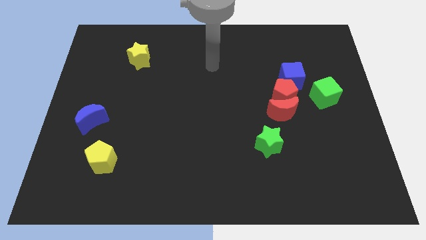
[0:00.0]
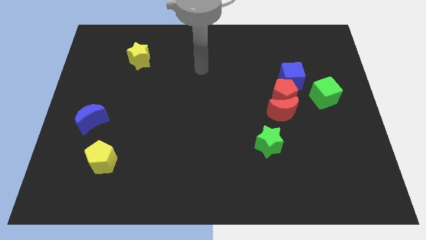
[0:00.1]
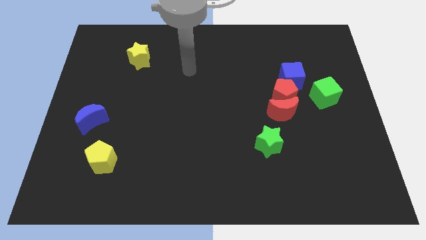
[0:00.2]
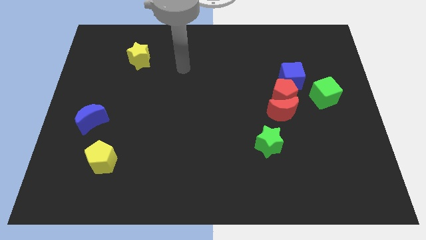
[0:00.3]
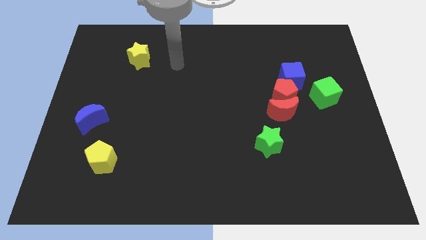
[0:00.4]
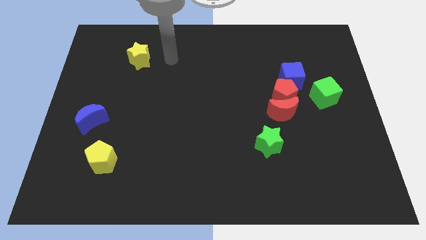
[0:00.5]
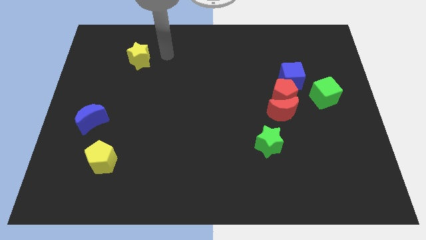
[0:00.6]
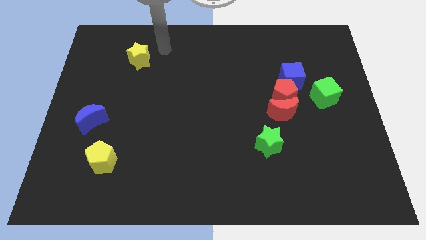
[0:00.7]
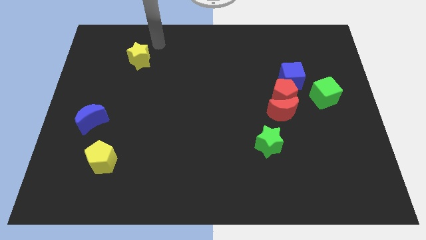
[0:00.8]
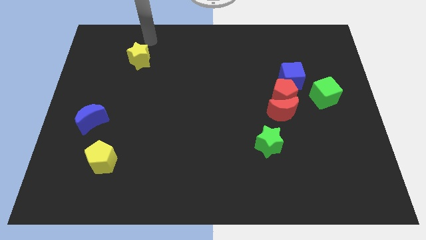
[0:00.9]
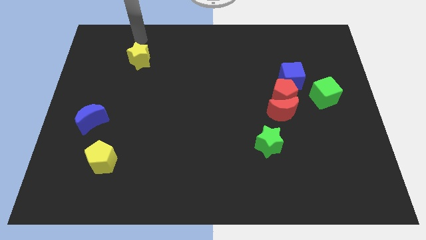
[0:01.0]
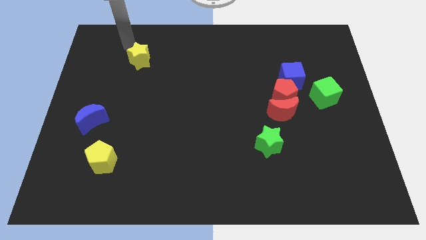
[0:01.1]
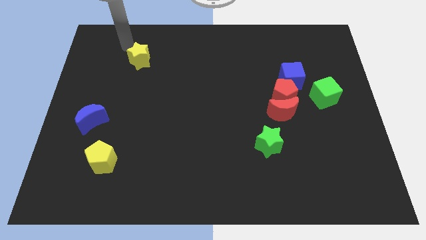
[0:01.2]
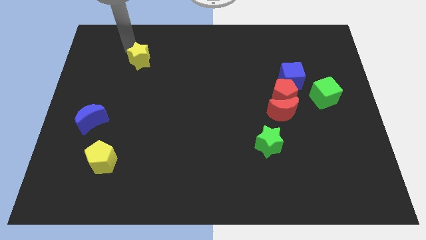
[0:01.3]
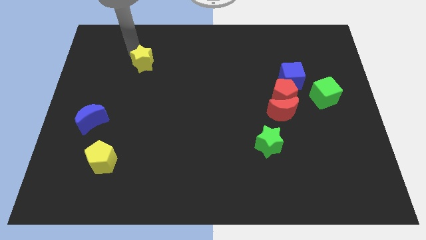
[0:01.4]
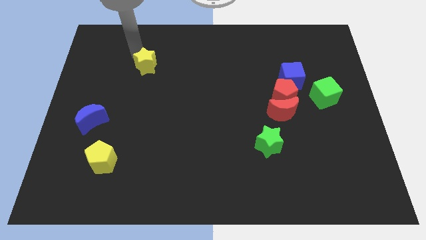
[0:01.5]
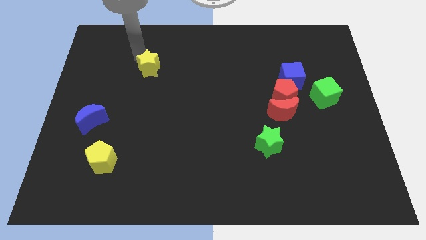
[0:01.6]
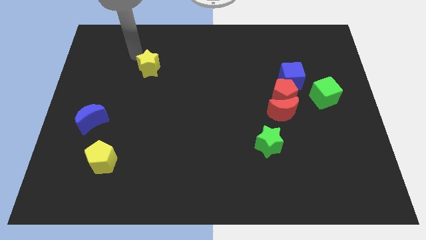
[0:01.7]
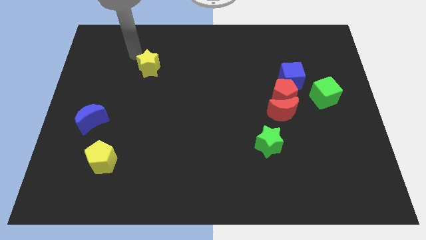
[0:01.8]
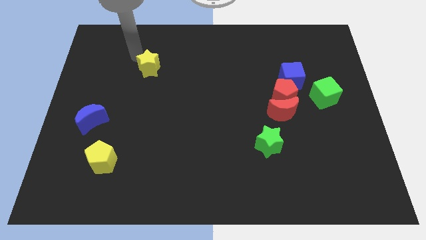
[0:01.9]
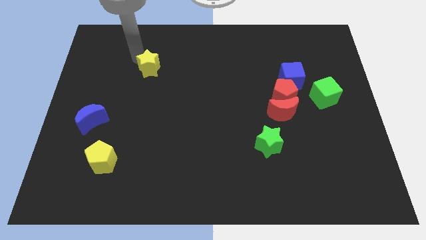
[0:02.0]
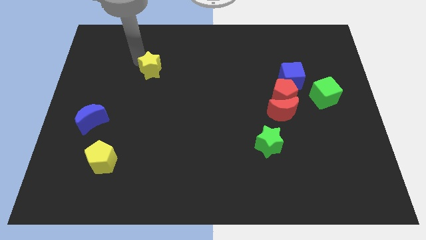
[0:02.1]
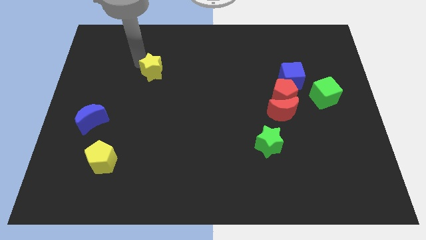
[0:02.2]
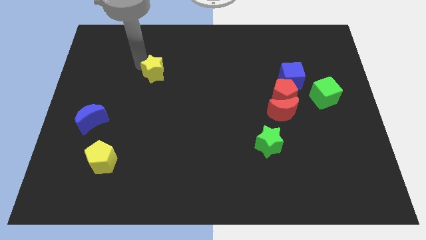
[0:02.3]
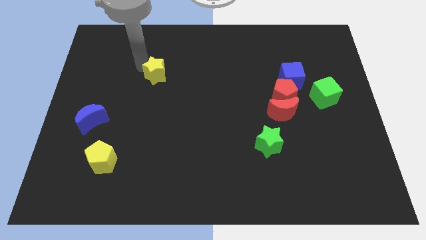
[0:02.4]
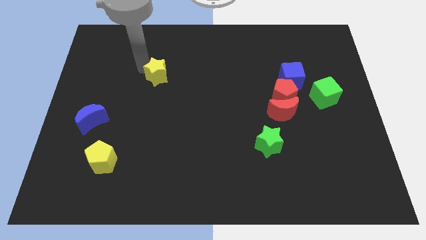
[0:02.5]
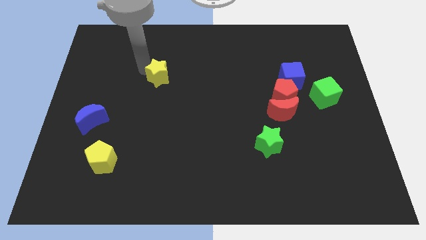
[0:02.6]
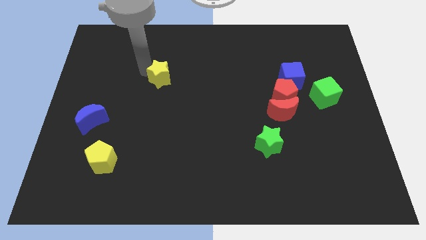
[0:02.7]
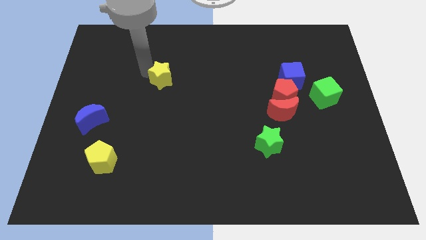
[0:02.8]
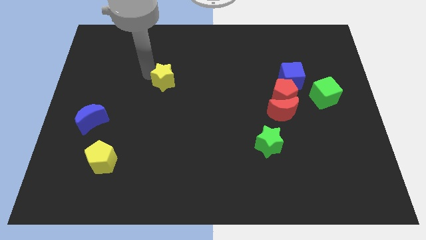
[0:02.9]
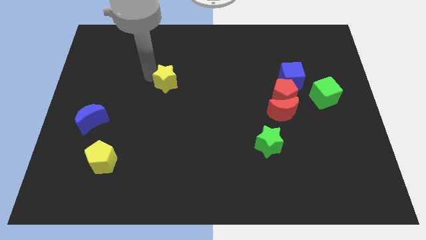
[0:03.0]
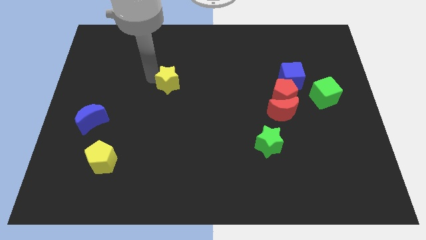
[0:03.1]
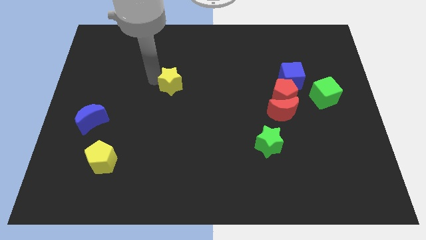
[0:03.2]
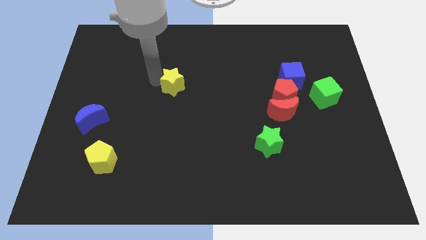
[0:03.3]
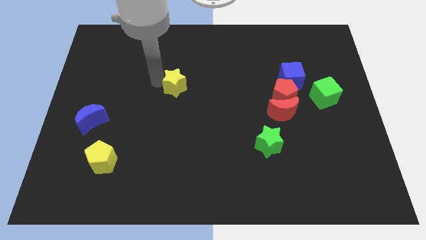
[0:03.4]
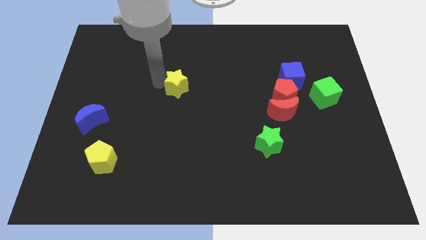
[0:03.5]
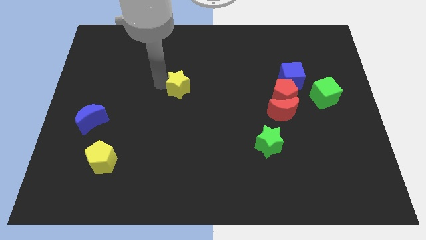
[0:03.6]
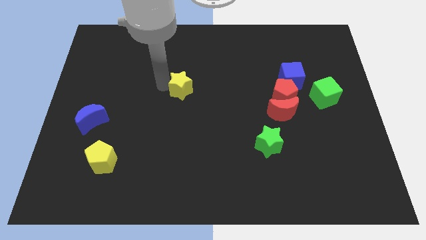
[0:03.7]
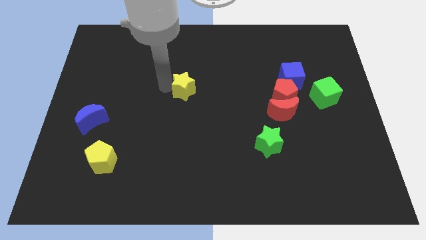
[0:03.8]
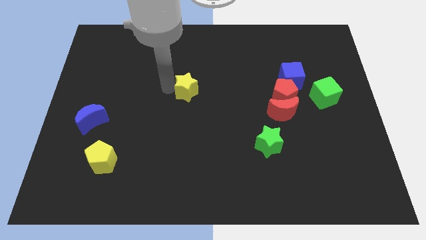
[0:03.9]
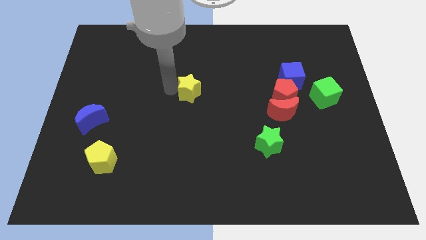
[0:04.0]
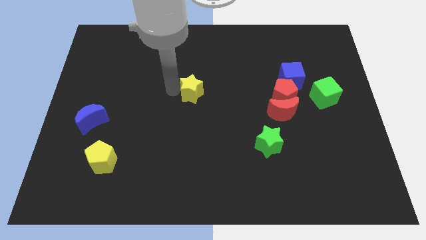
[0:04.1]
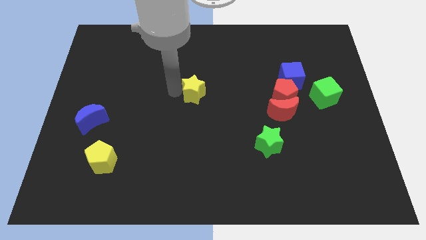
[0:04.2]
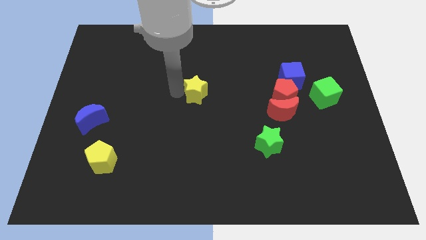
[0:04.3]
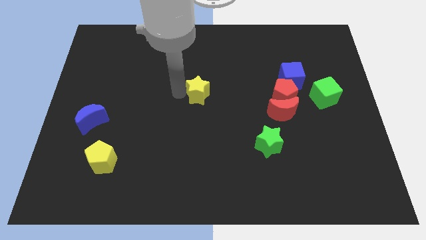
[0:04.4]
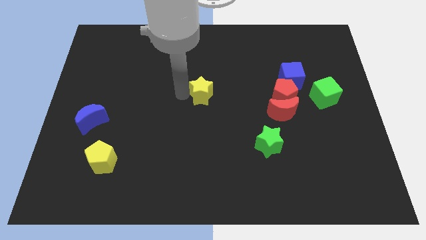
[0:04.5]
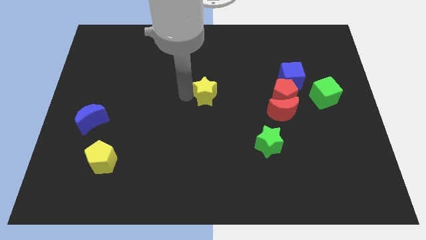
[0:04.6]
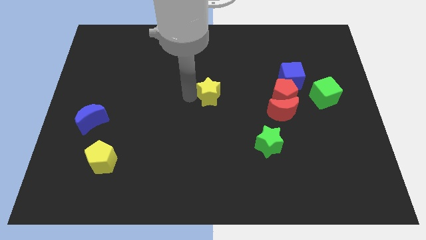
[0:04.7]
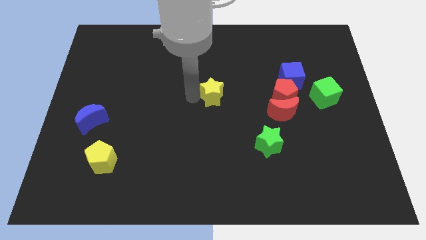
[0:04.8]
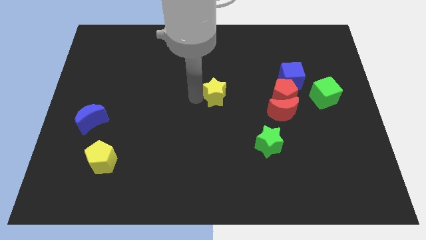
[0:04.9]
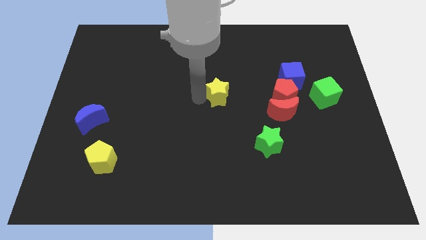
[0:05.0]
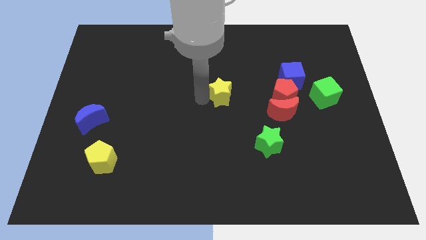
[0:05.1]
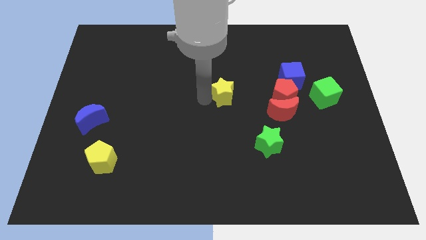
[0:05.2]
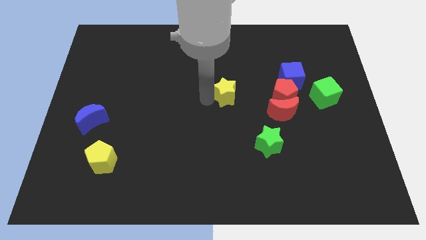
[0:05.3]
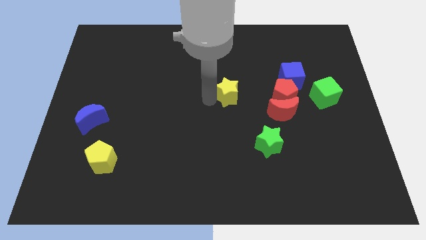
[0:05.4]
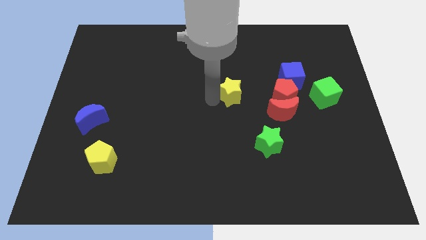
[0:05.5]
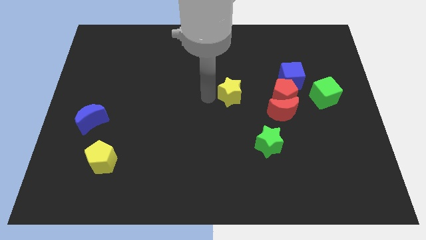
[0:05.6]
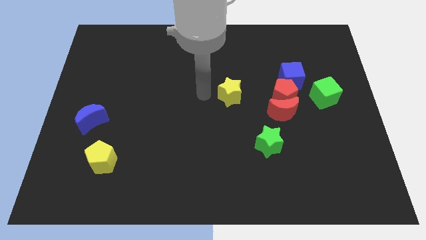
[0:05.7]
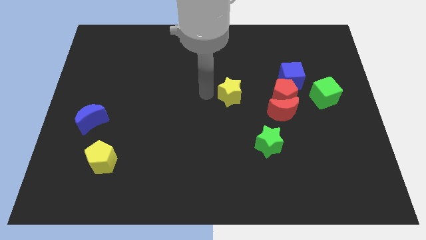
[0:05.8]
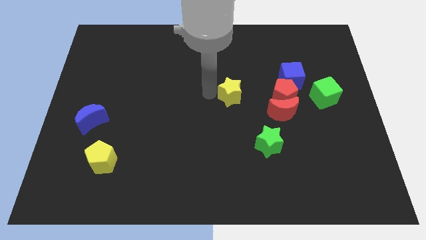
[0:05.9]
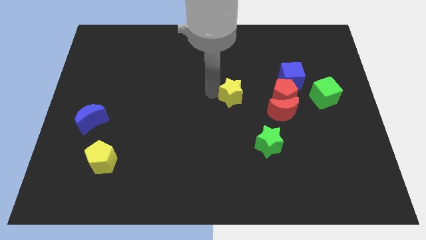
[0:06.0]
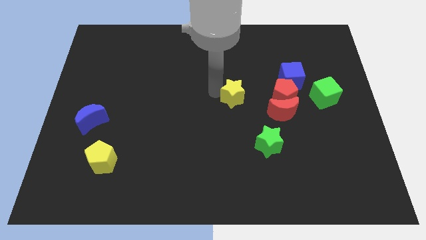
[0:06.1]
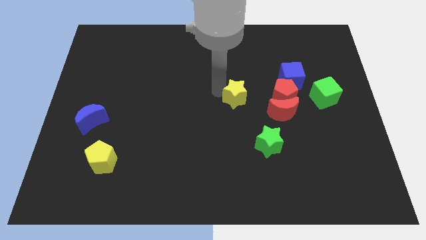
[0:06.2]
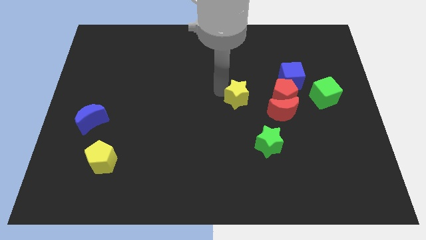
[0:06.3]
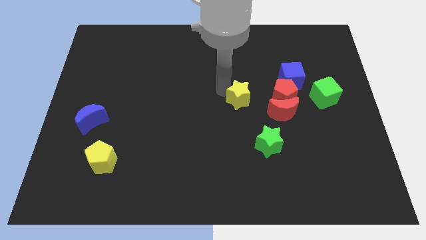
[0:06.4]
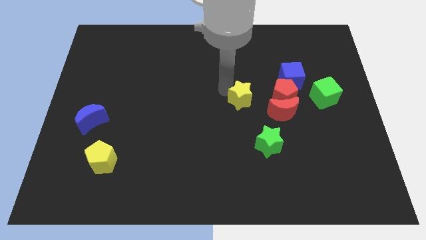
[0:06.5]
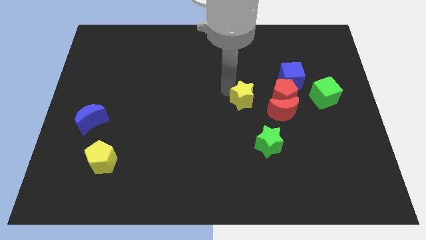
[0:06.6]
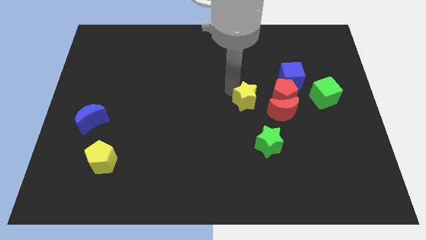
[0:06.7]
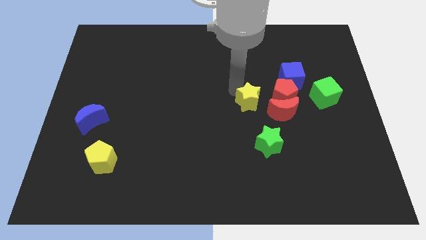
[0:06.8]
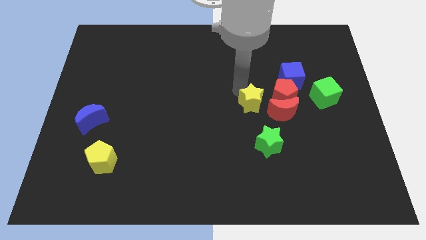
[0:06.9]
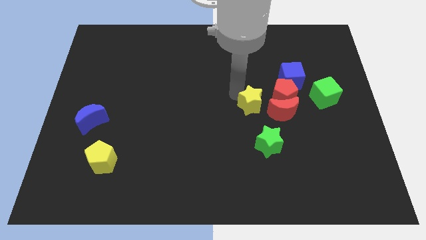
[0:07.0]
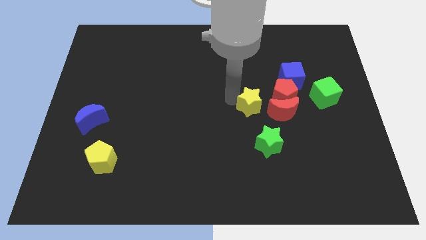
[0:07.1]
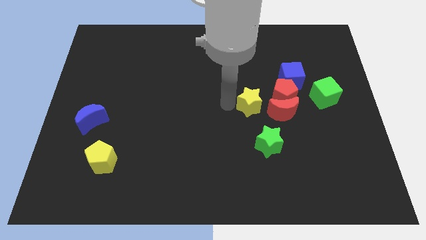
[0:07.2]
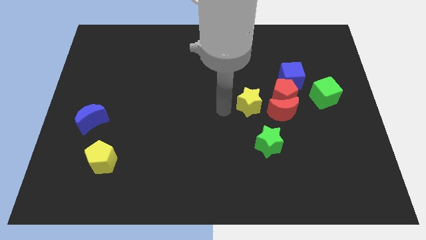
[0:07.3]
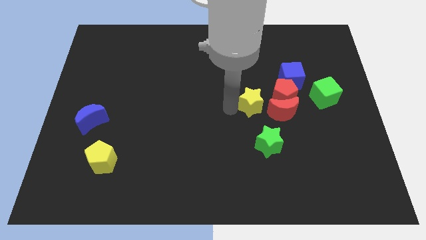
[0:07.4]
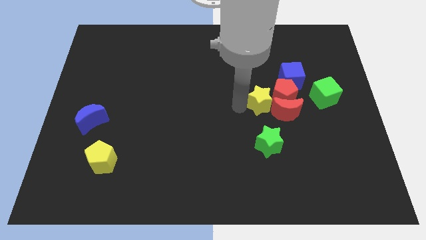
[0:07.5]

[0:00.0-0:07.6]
move the yellow star to the left side of the green cube
